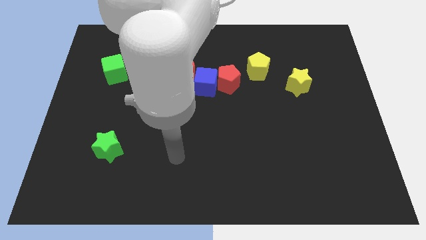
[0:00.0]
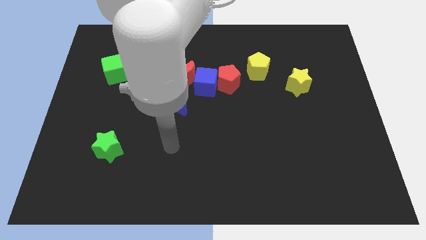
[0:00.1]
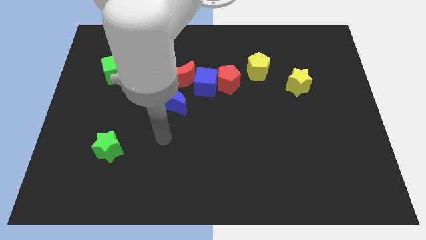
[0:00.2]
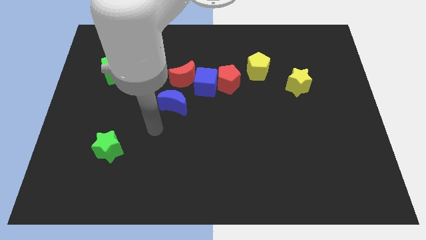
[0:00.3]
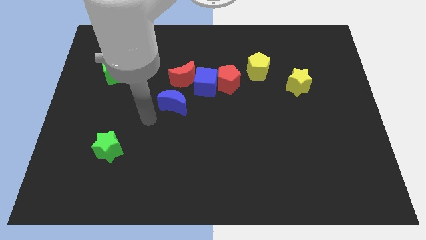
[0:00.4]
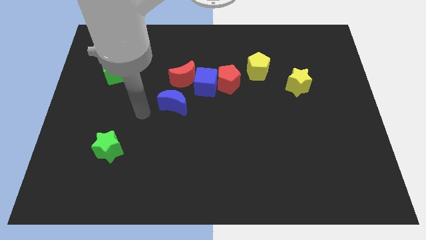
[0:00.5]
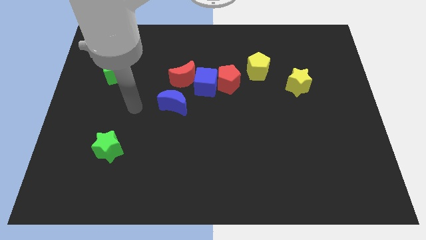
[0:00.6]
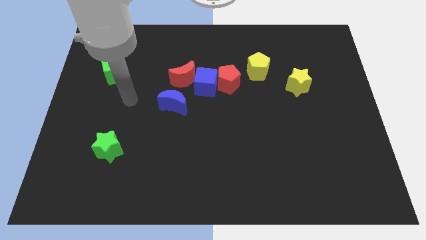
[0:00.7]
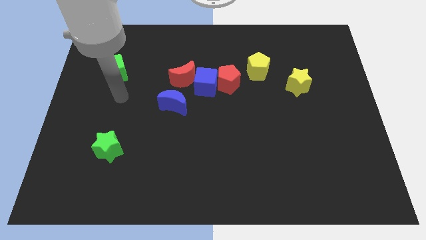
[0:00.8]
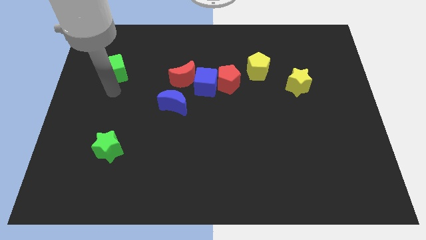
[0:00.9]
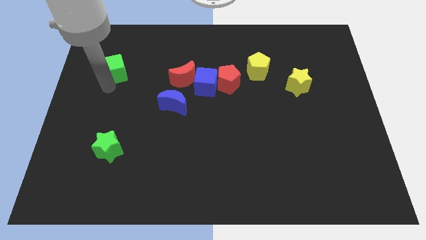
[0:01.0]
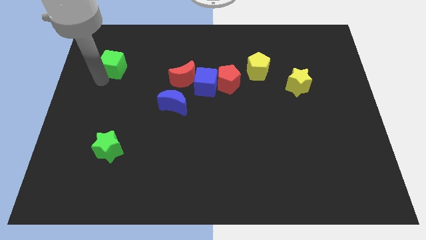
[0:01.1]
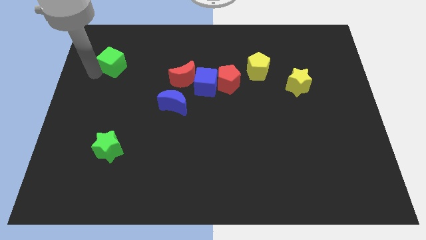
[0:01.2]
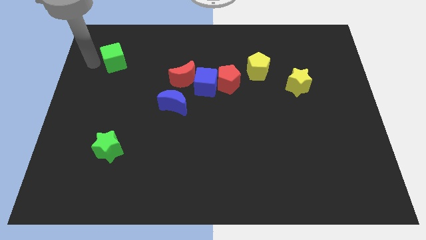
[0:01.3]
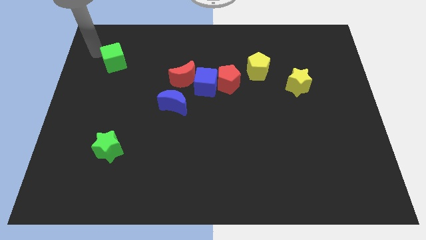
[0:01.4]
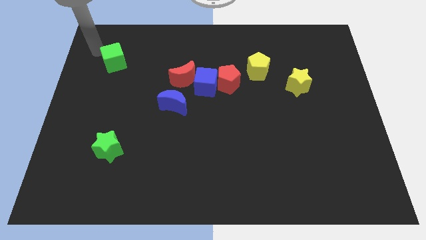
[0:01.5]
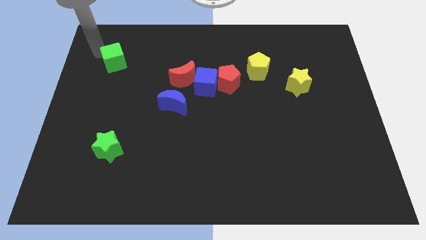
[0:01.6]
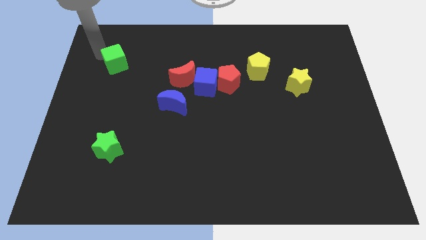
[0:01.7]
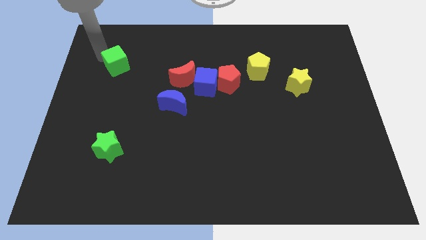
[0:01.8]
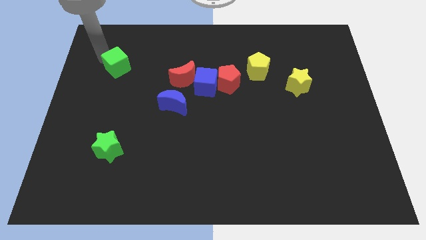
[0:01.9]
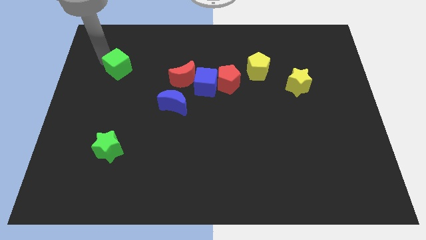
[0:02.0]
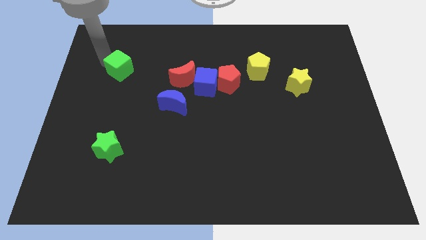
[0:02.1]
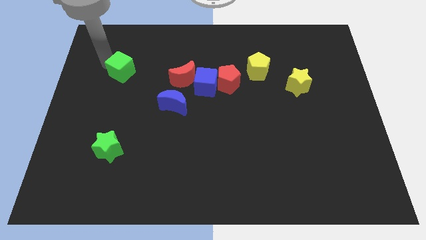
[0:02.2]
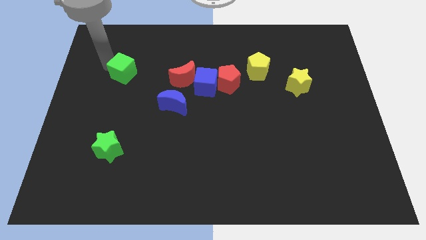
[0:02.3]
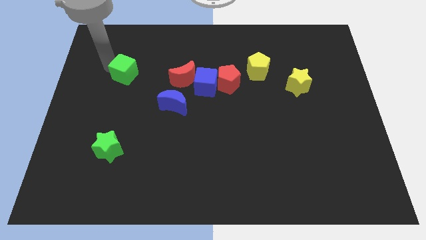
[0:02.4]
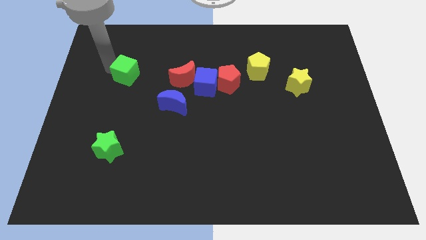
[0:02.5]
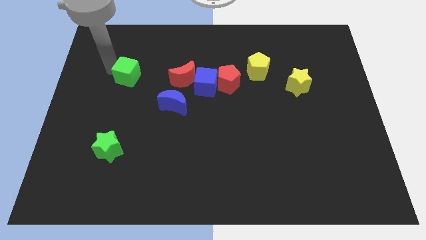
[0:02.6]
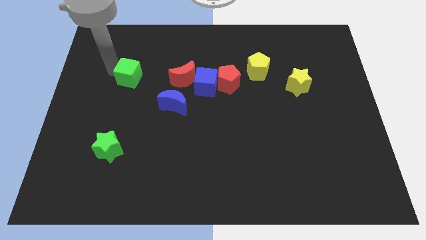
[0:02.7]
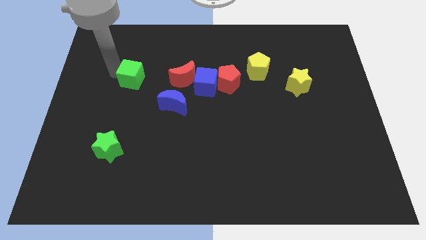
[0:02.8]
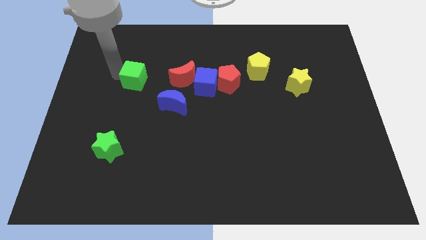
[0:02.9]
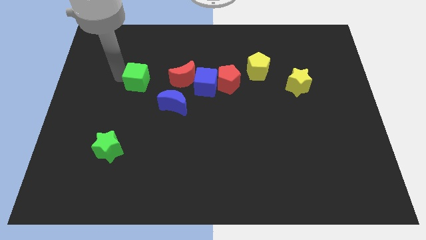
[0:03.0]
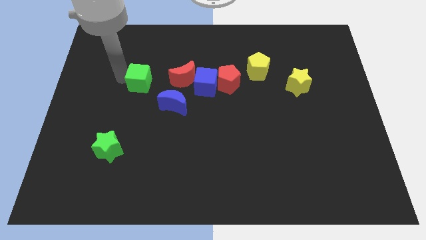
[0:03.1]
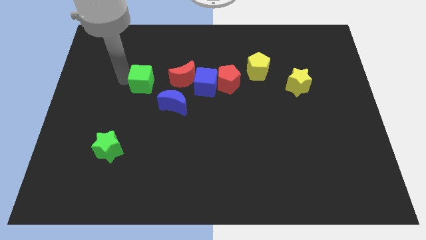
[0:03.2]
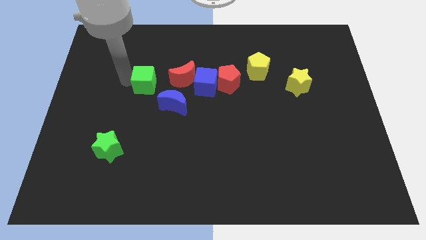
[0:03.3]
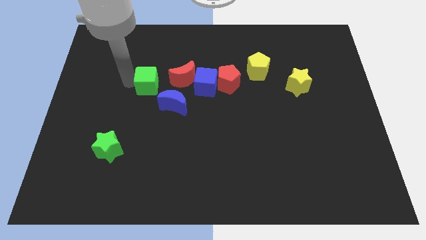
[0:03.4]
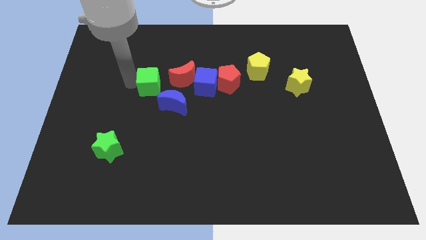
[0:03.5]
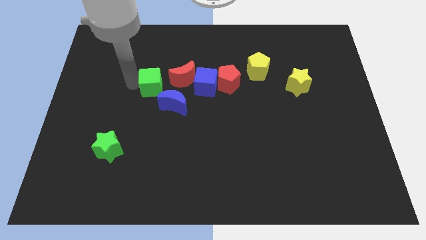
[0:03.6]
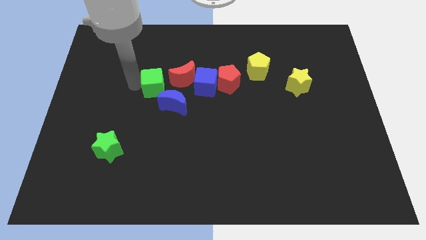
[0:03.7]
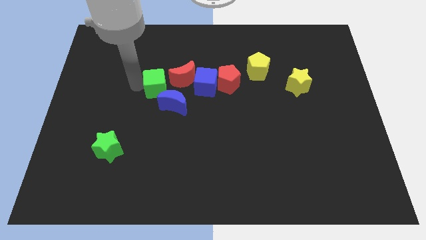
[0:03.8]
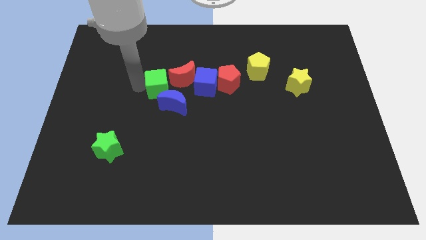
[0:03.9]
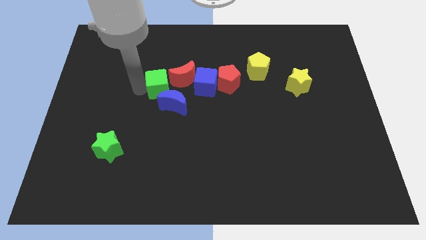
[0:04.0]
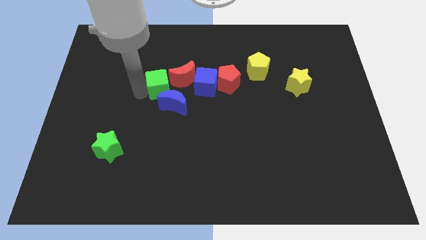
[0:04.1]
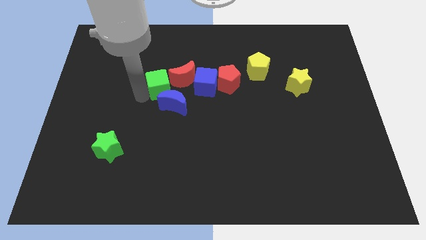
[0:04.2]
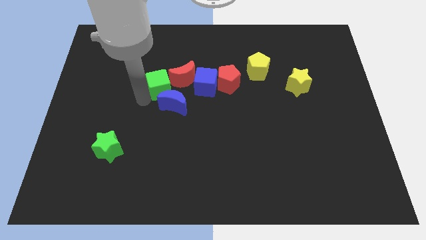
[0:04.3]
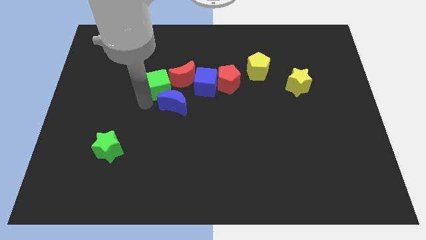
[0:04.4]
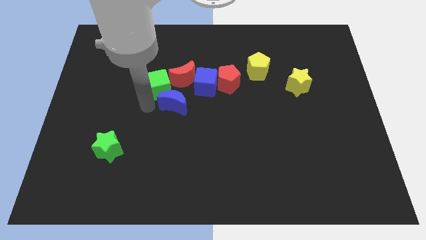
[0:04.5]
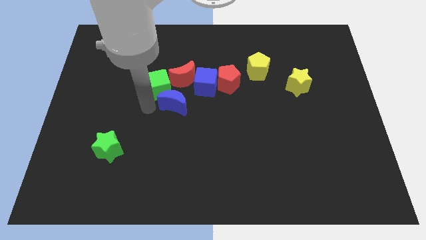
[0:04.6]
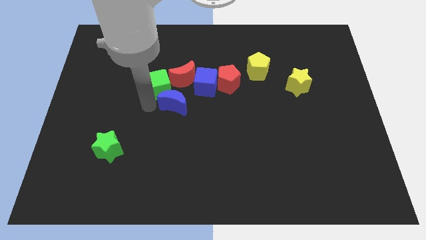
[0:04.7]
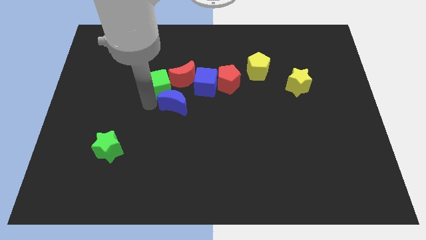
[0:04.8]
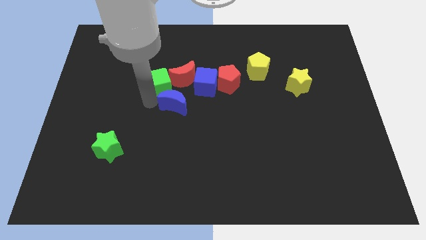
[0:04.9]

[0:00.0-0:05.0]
slide the green cube towards the red moon

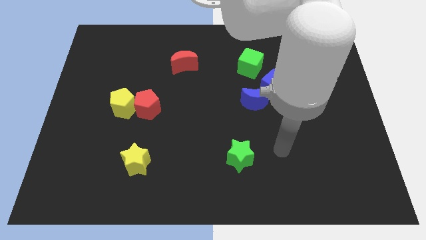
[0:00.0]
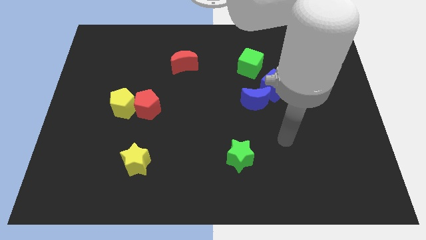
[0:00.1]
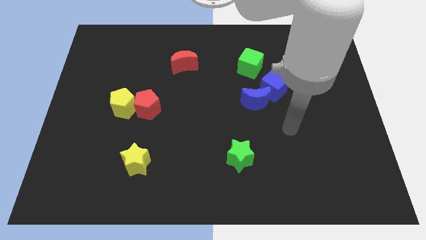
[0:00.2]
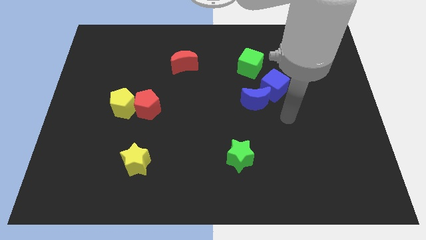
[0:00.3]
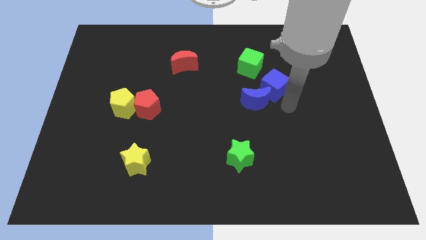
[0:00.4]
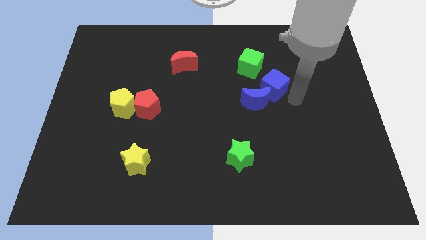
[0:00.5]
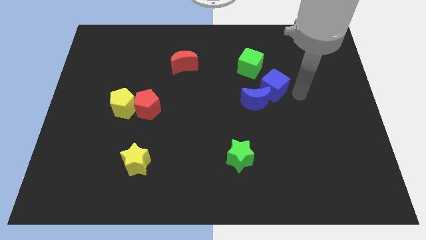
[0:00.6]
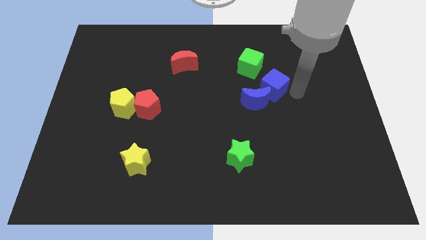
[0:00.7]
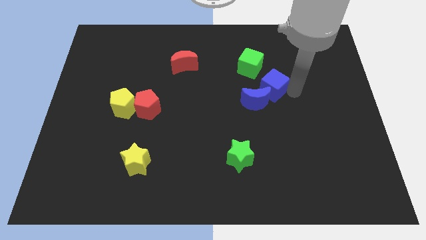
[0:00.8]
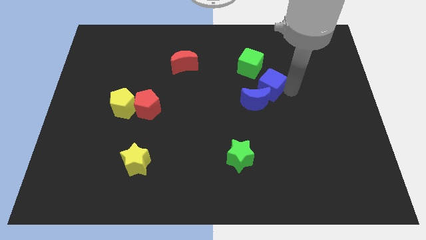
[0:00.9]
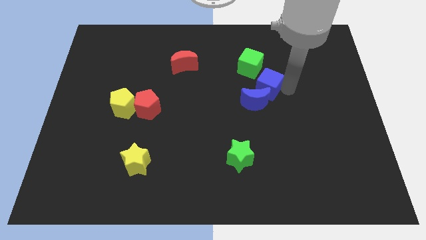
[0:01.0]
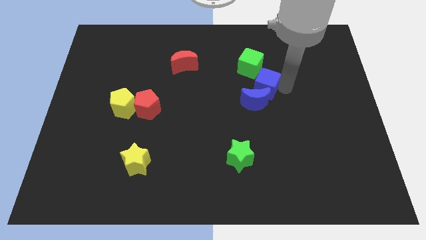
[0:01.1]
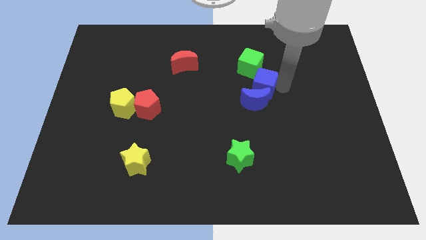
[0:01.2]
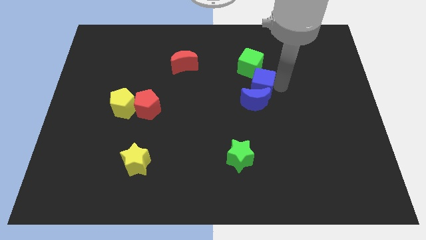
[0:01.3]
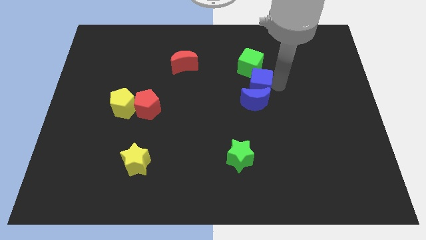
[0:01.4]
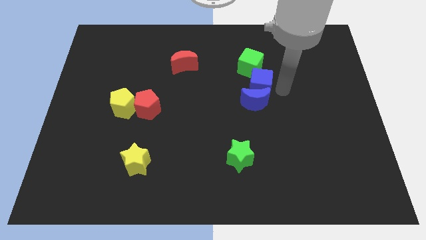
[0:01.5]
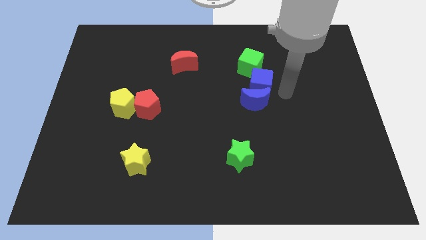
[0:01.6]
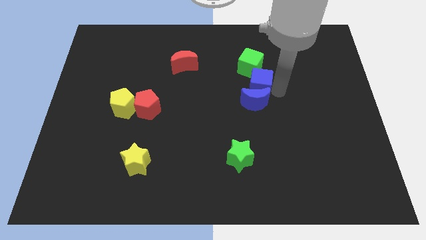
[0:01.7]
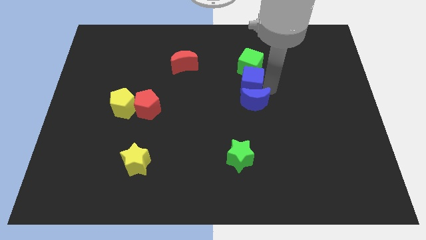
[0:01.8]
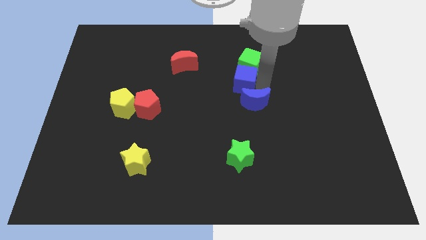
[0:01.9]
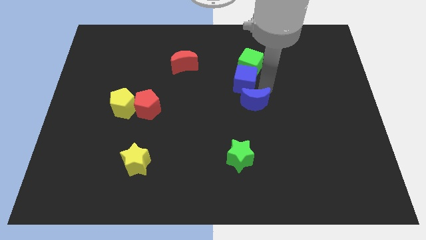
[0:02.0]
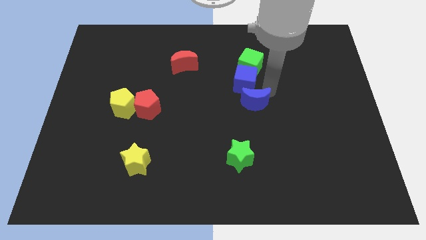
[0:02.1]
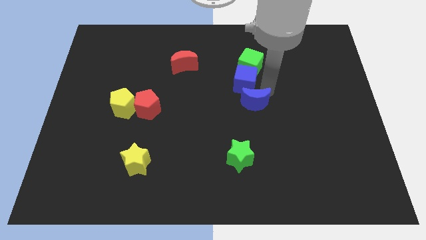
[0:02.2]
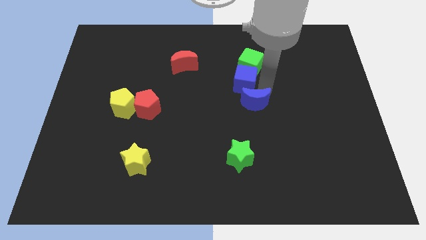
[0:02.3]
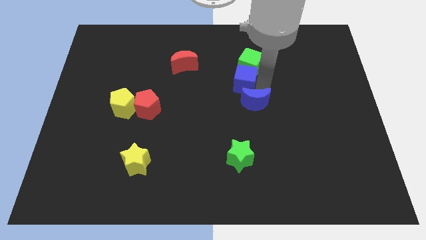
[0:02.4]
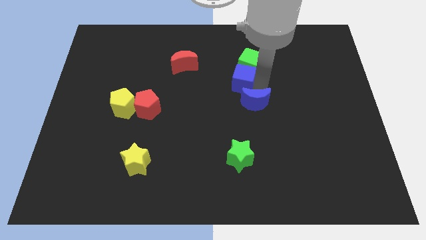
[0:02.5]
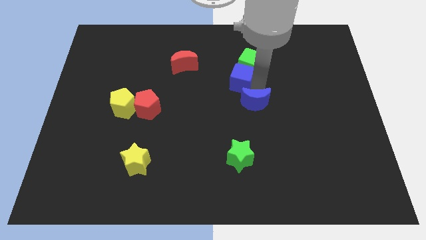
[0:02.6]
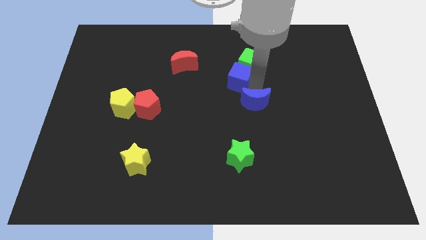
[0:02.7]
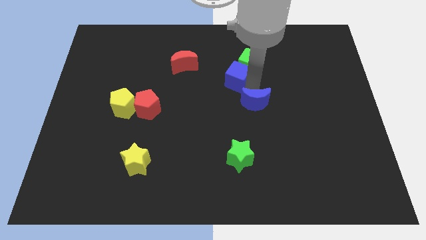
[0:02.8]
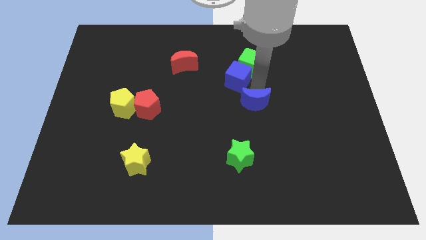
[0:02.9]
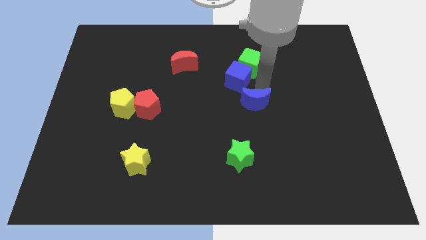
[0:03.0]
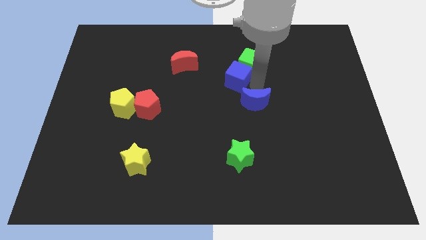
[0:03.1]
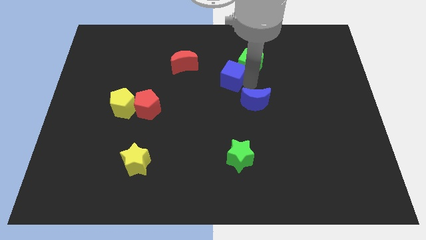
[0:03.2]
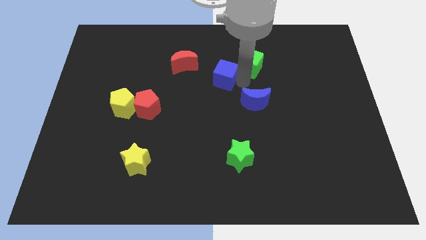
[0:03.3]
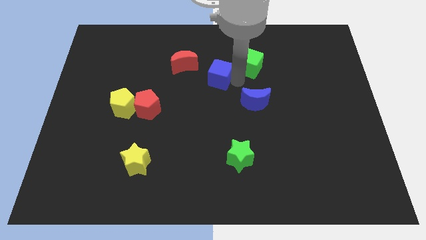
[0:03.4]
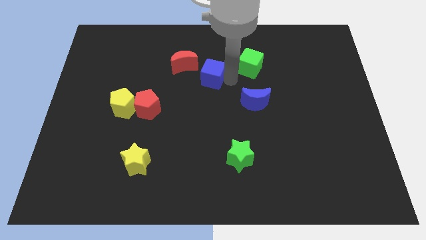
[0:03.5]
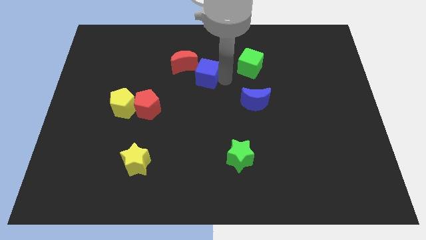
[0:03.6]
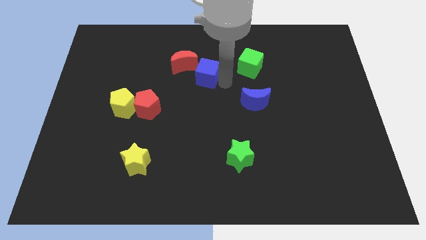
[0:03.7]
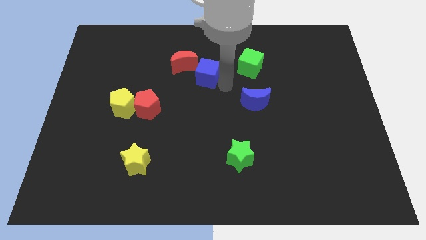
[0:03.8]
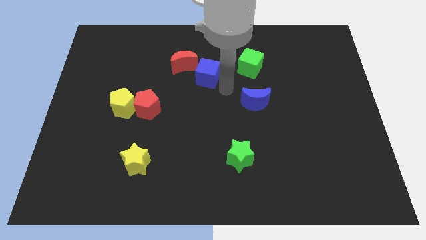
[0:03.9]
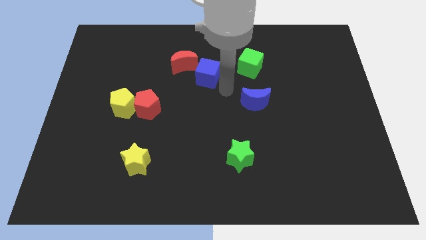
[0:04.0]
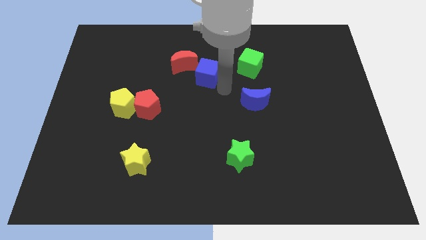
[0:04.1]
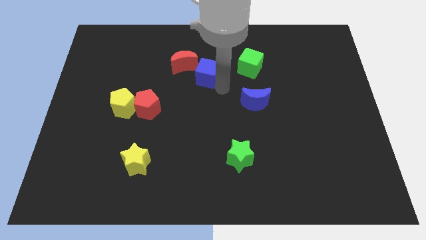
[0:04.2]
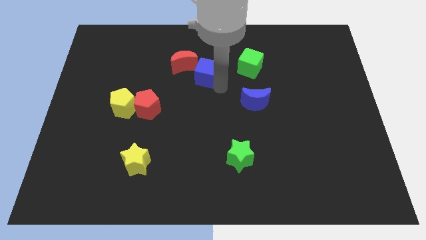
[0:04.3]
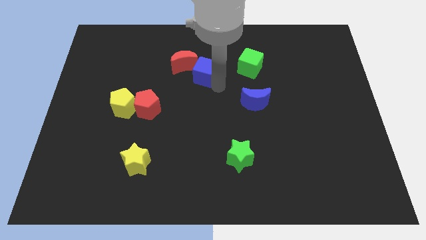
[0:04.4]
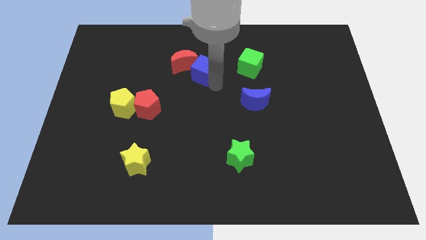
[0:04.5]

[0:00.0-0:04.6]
move the blue cube to the red moon
